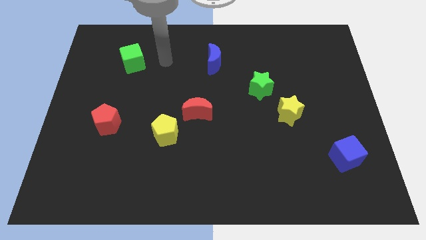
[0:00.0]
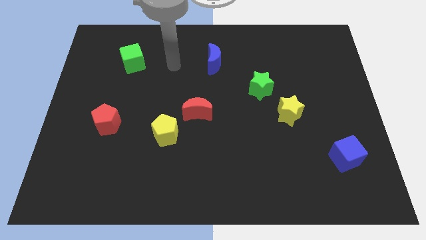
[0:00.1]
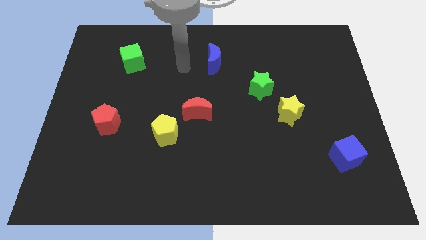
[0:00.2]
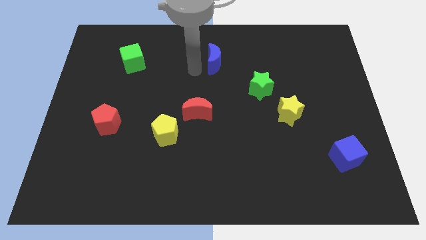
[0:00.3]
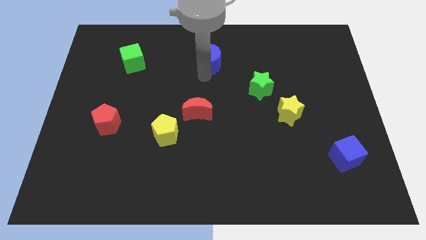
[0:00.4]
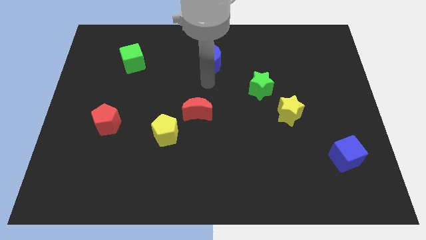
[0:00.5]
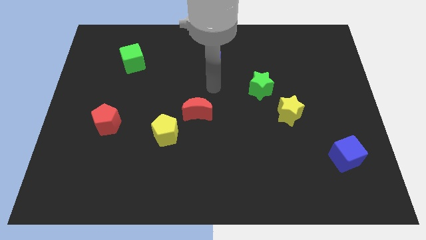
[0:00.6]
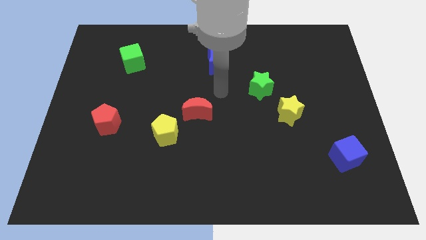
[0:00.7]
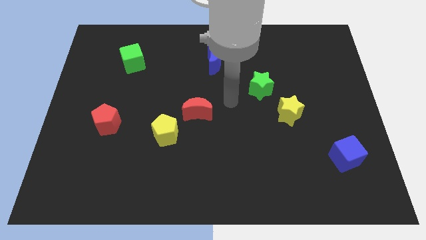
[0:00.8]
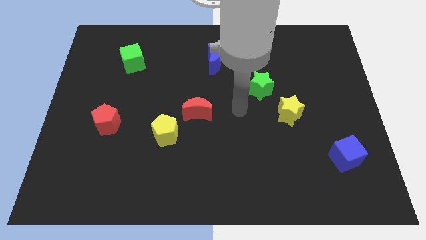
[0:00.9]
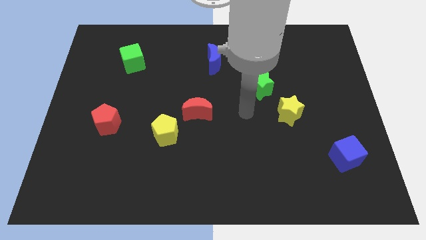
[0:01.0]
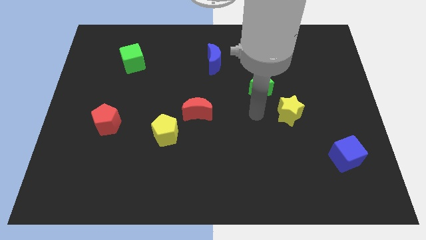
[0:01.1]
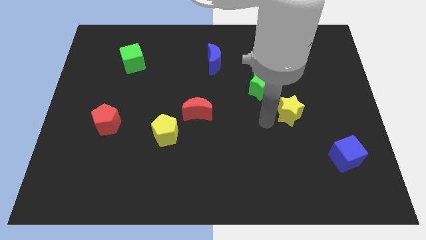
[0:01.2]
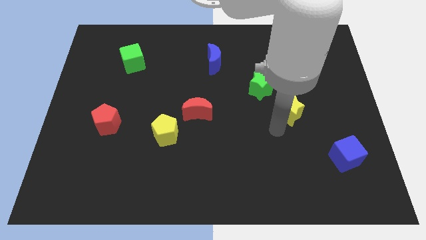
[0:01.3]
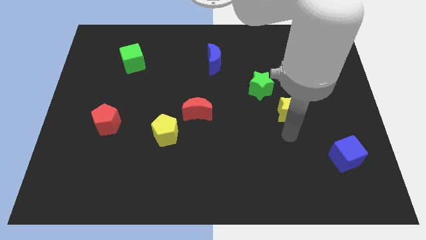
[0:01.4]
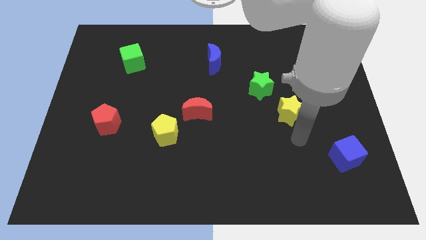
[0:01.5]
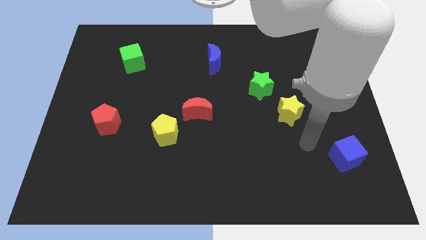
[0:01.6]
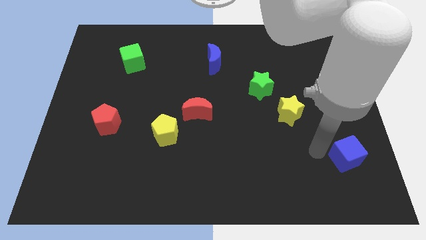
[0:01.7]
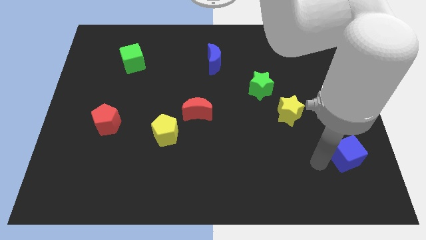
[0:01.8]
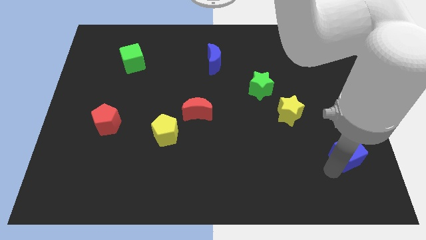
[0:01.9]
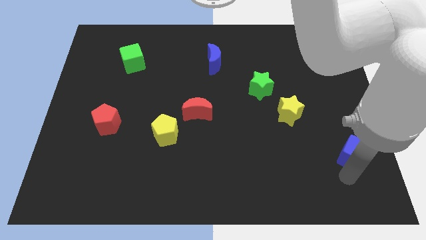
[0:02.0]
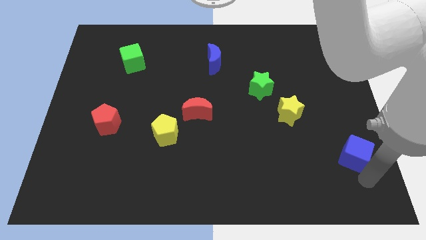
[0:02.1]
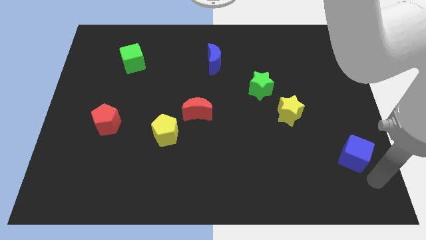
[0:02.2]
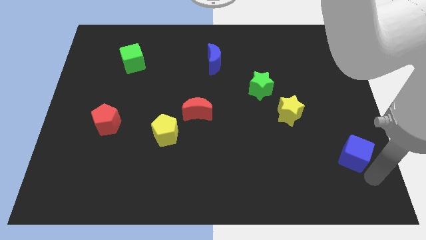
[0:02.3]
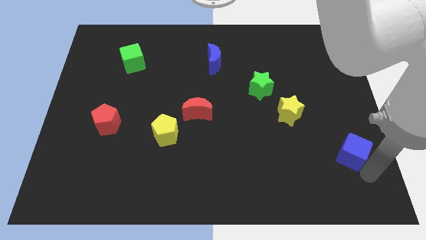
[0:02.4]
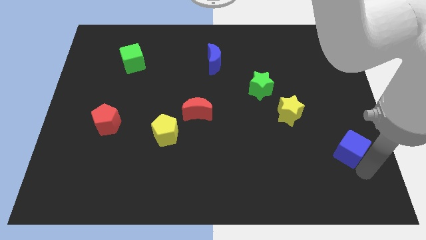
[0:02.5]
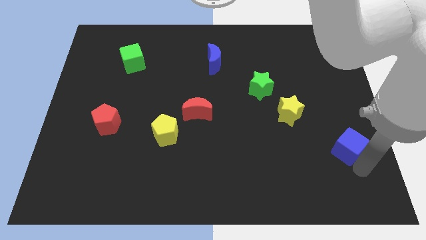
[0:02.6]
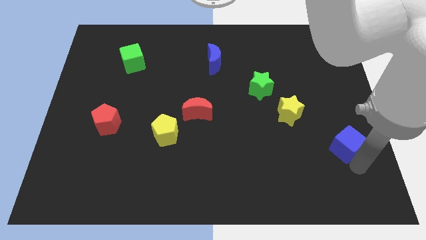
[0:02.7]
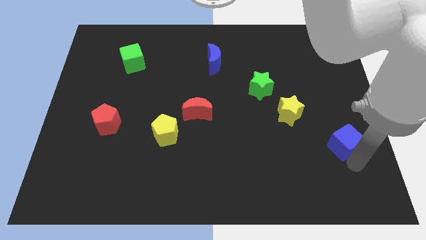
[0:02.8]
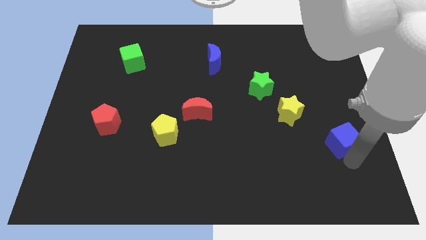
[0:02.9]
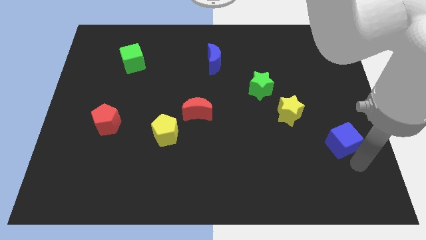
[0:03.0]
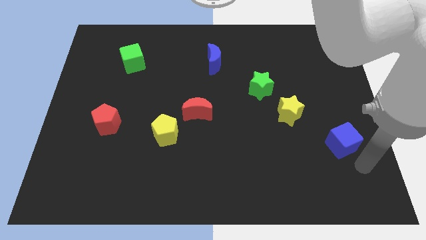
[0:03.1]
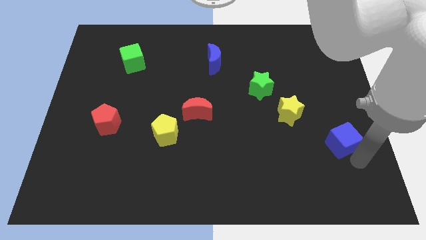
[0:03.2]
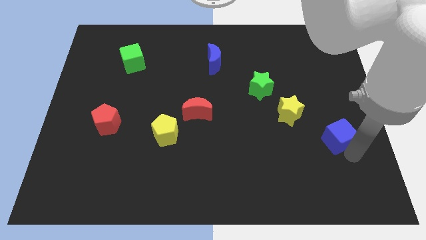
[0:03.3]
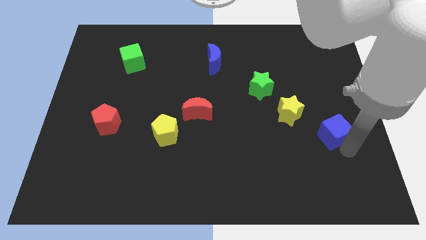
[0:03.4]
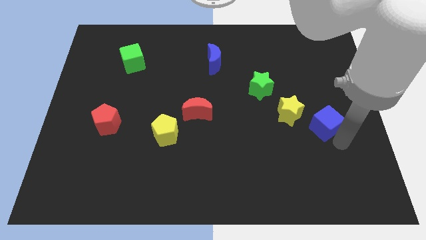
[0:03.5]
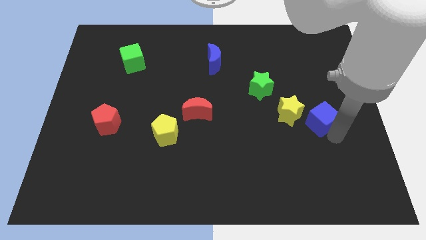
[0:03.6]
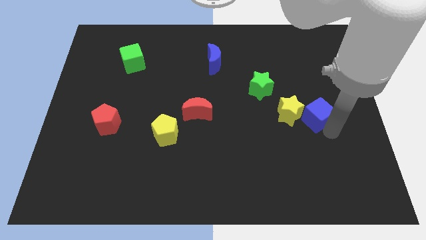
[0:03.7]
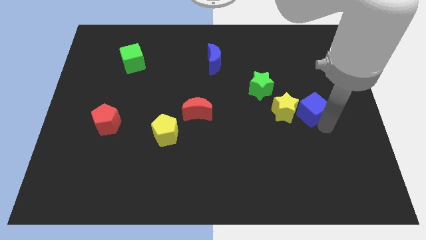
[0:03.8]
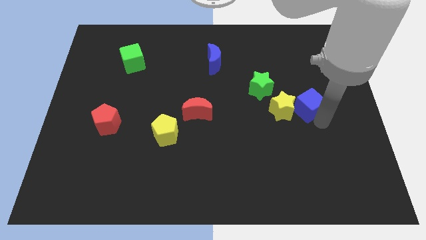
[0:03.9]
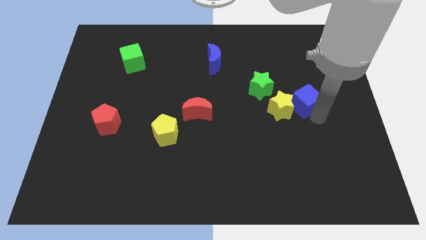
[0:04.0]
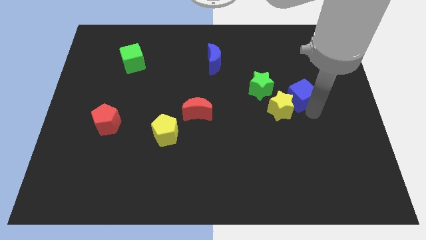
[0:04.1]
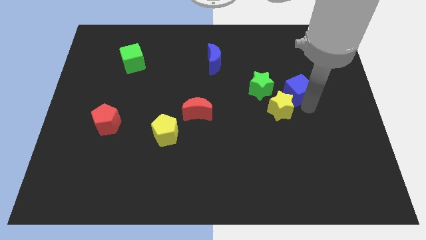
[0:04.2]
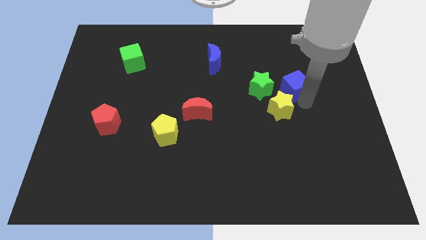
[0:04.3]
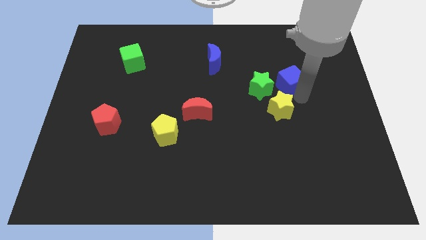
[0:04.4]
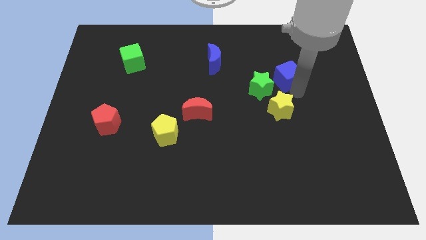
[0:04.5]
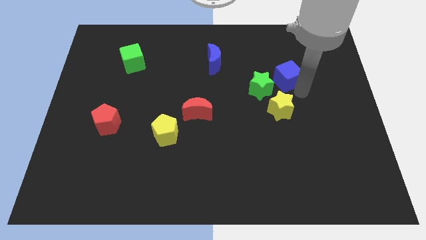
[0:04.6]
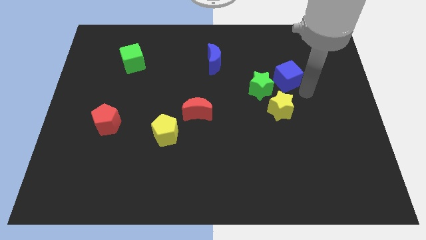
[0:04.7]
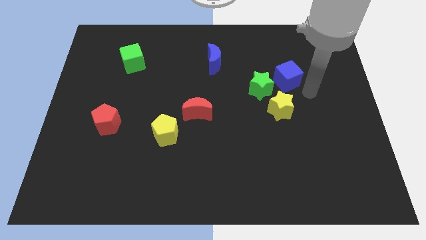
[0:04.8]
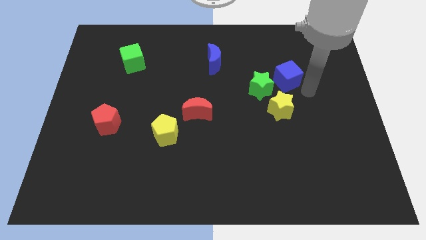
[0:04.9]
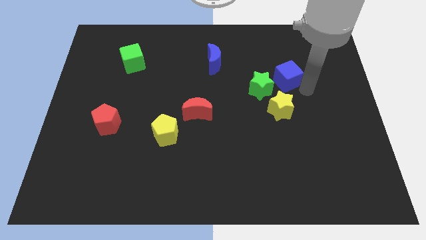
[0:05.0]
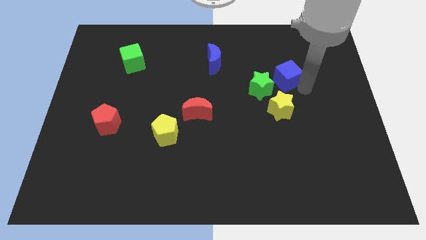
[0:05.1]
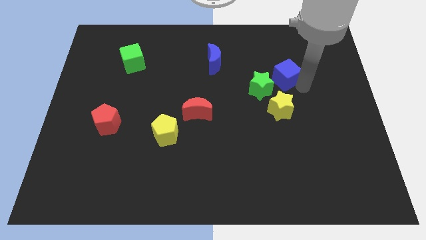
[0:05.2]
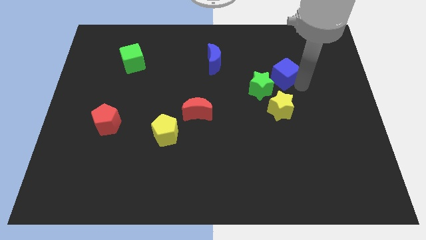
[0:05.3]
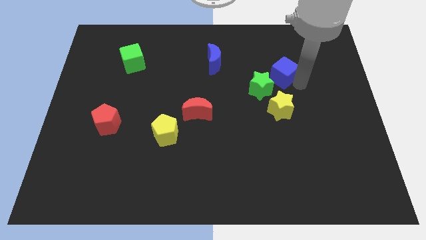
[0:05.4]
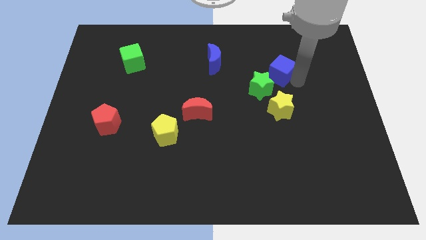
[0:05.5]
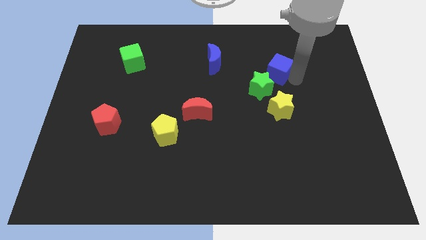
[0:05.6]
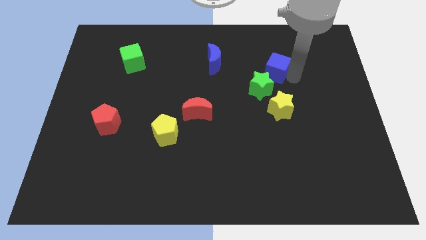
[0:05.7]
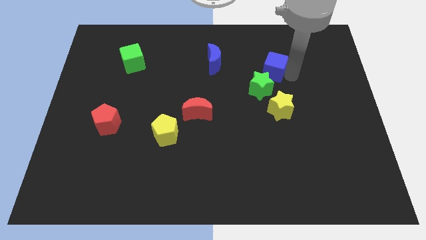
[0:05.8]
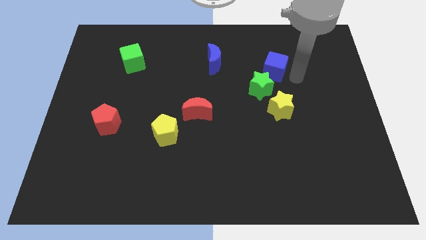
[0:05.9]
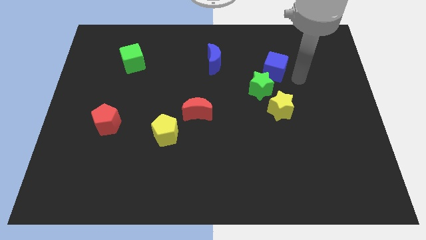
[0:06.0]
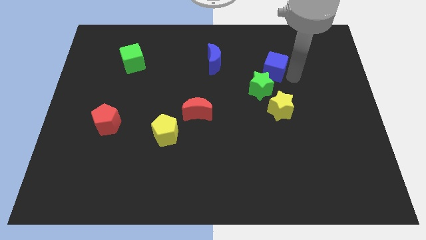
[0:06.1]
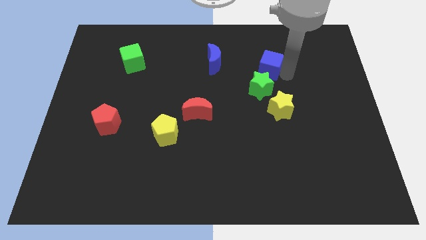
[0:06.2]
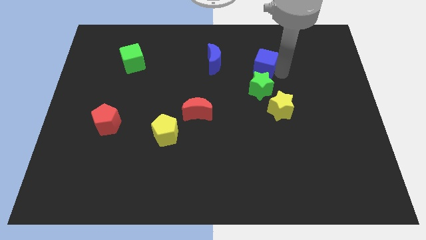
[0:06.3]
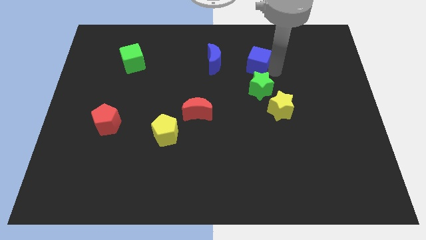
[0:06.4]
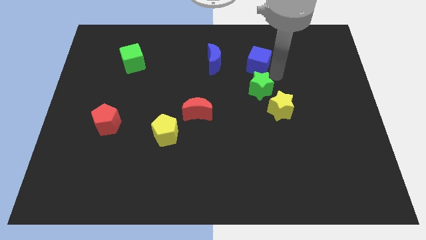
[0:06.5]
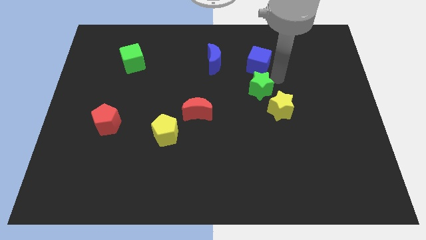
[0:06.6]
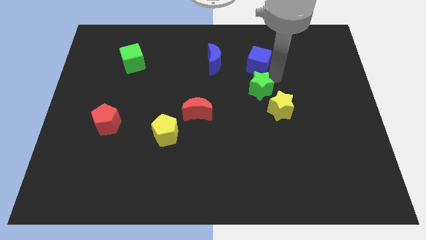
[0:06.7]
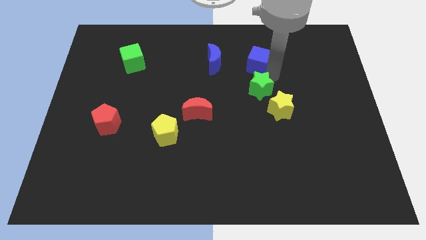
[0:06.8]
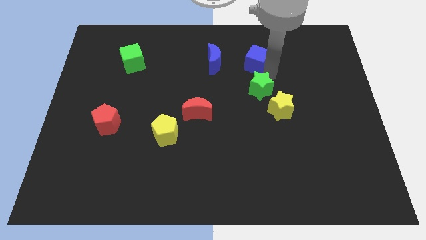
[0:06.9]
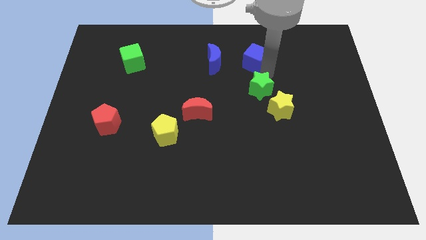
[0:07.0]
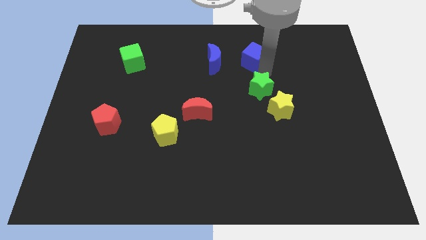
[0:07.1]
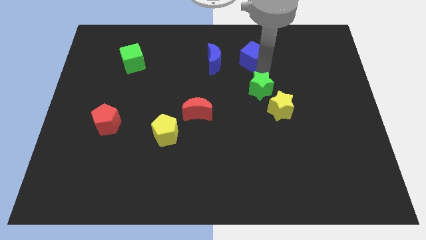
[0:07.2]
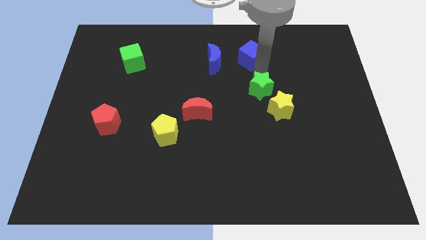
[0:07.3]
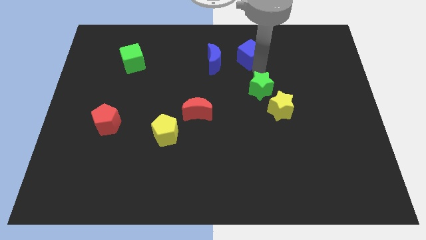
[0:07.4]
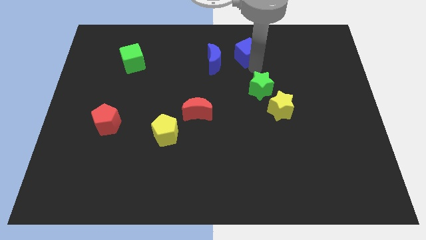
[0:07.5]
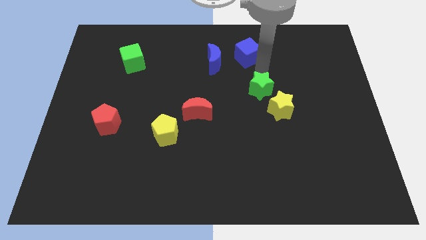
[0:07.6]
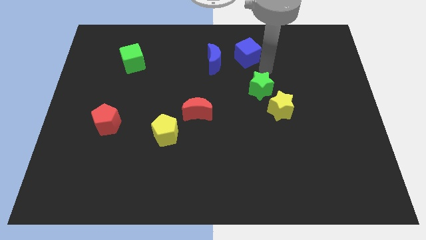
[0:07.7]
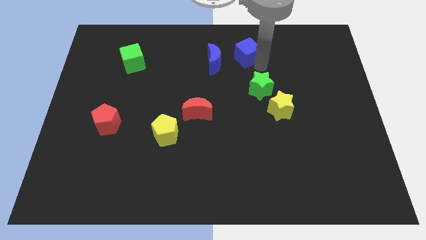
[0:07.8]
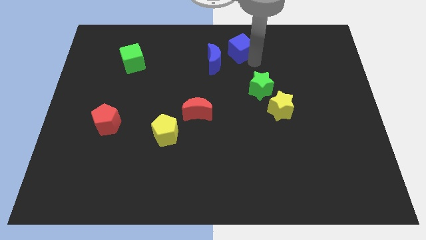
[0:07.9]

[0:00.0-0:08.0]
push the blue cube to the top side
